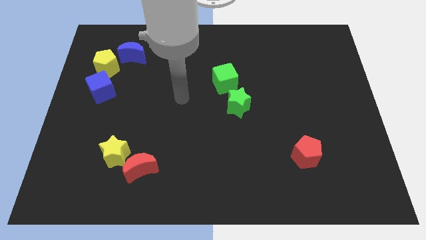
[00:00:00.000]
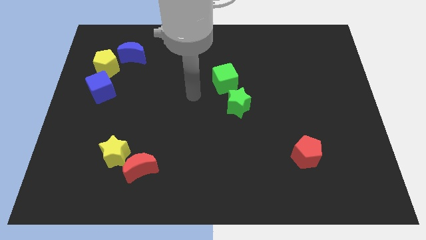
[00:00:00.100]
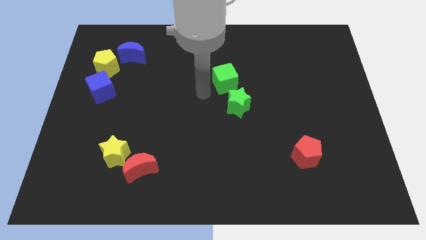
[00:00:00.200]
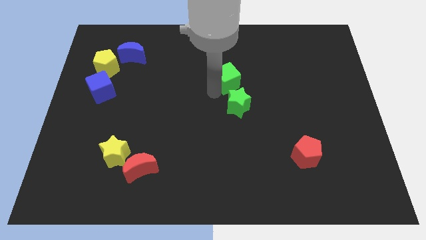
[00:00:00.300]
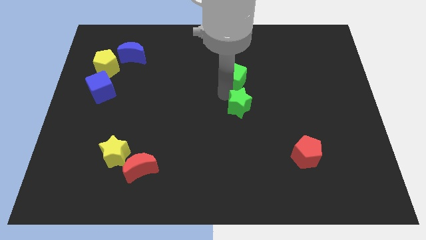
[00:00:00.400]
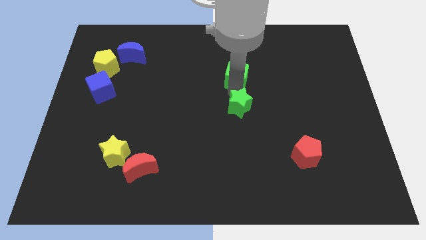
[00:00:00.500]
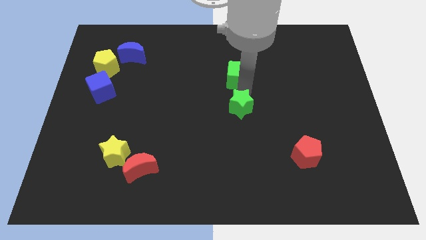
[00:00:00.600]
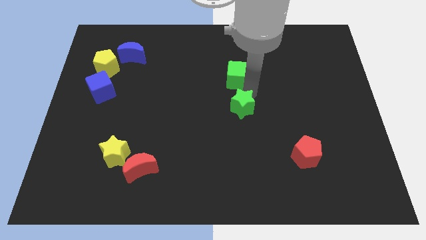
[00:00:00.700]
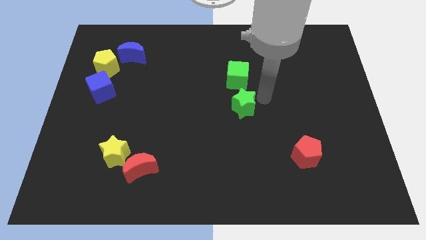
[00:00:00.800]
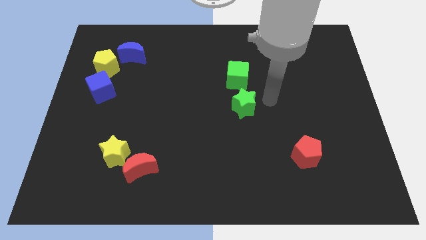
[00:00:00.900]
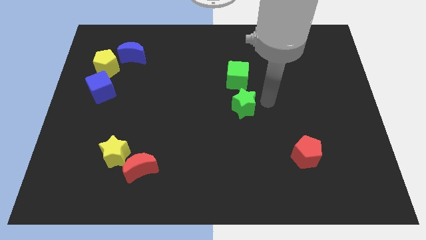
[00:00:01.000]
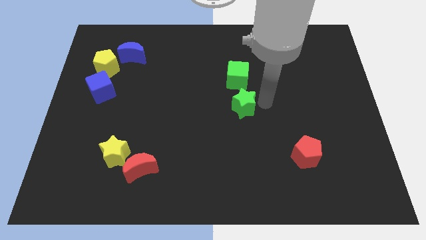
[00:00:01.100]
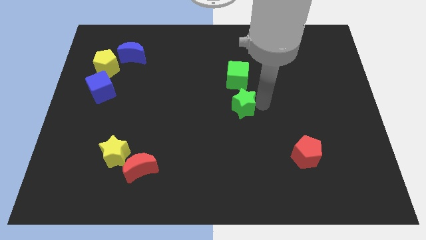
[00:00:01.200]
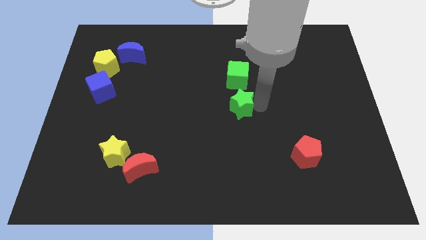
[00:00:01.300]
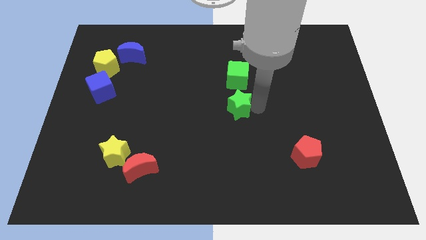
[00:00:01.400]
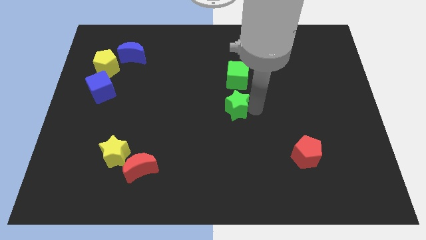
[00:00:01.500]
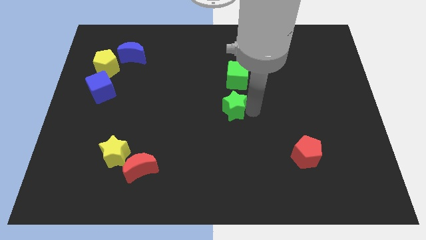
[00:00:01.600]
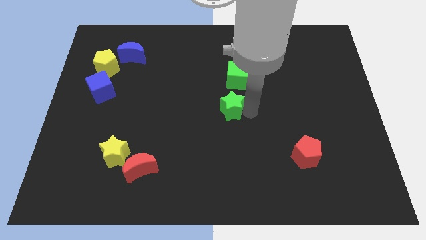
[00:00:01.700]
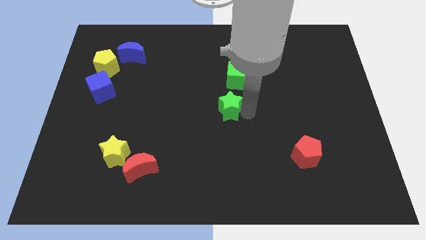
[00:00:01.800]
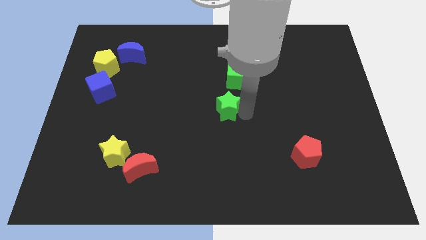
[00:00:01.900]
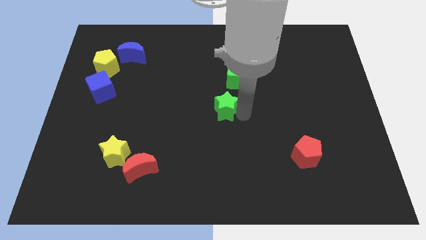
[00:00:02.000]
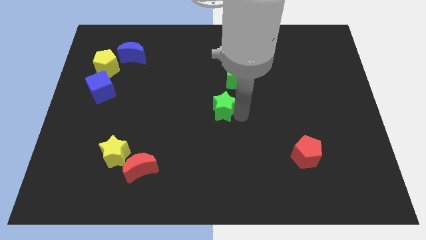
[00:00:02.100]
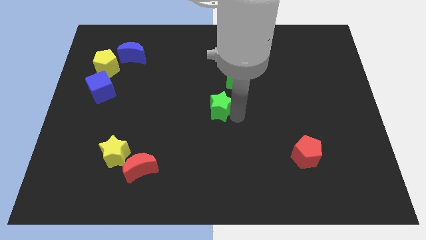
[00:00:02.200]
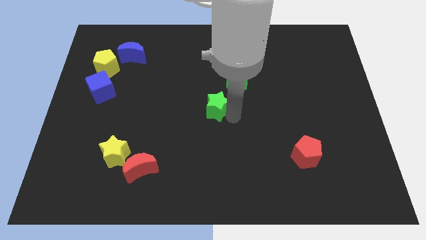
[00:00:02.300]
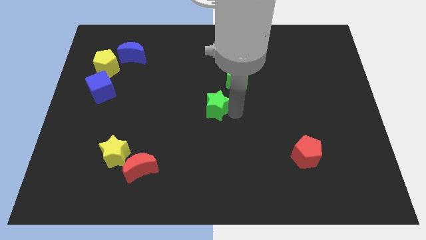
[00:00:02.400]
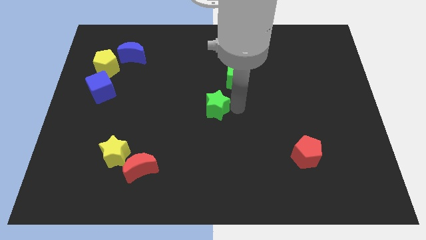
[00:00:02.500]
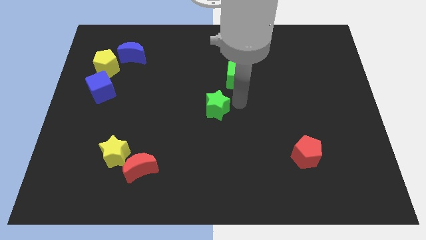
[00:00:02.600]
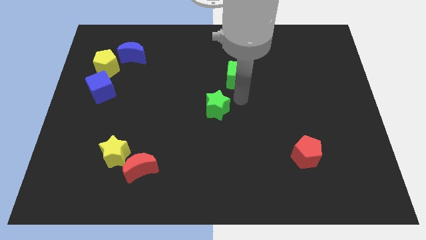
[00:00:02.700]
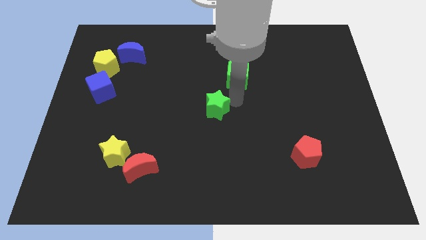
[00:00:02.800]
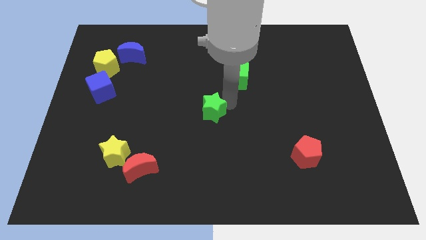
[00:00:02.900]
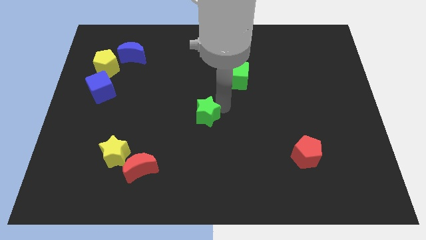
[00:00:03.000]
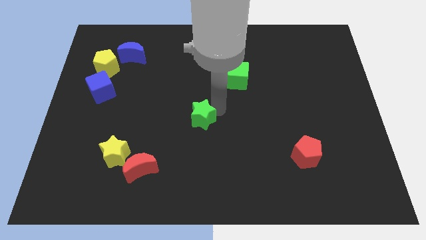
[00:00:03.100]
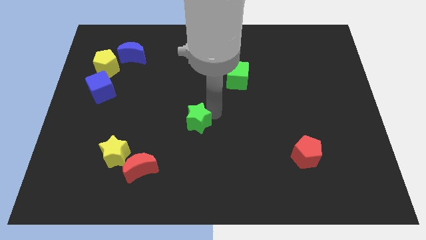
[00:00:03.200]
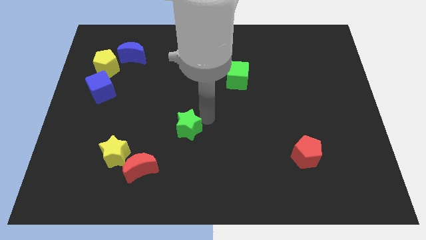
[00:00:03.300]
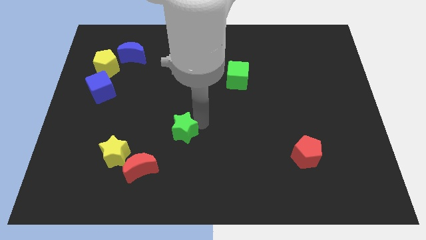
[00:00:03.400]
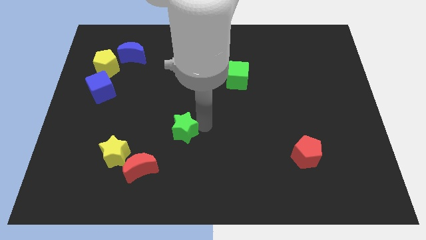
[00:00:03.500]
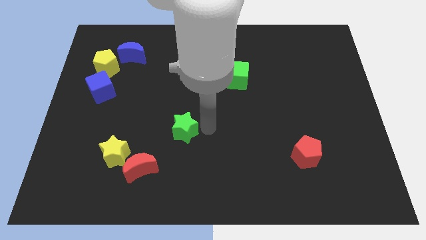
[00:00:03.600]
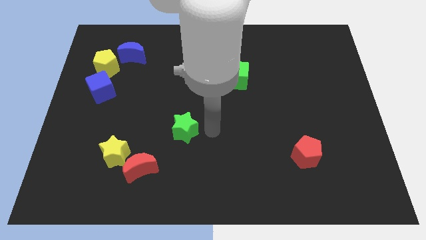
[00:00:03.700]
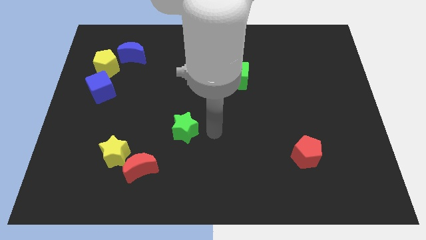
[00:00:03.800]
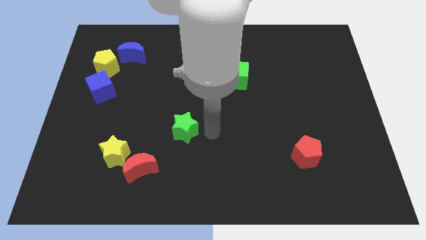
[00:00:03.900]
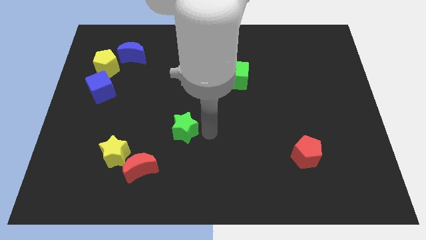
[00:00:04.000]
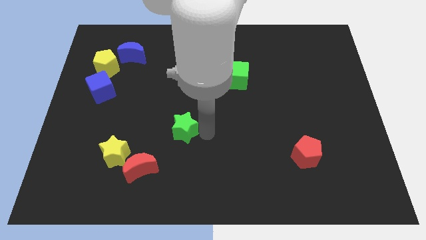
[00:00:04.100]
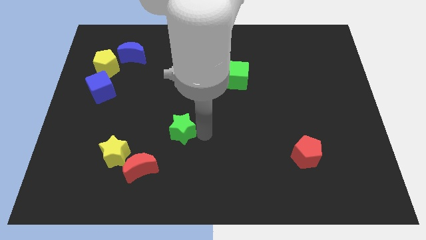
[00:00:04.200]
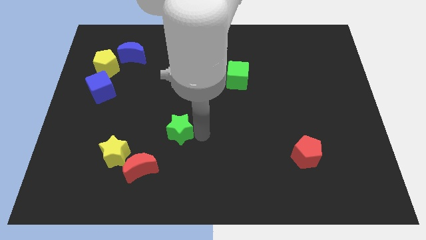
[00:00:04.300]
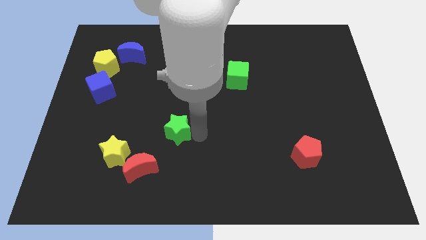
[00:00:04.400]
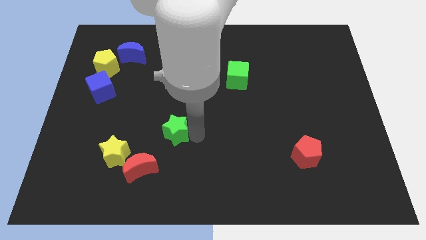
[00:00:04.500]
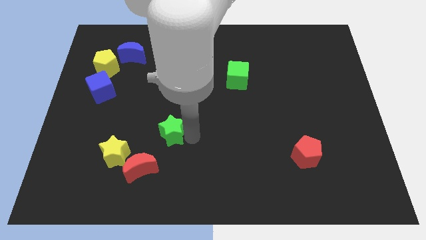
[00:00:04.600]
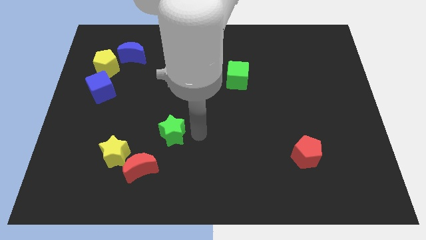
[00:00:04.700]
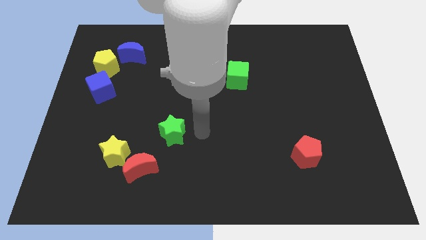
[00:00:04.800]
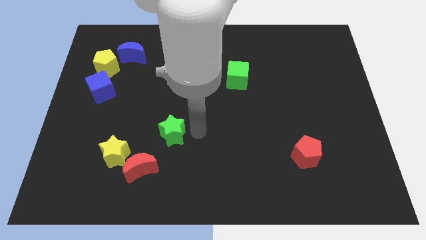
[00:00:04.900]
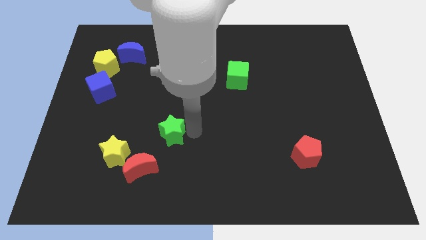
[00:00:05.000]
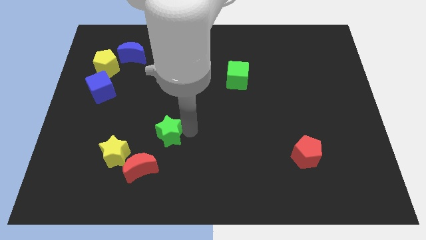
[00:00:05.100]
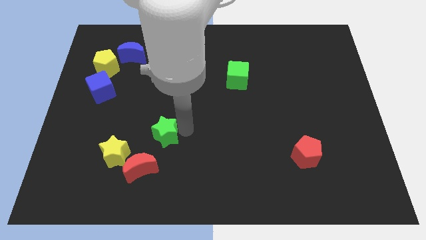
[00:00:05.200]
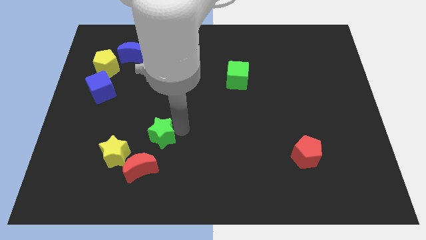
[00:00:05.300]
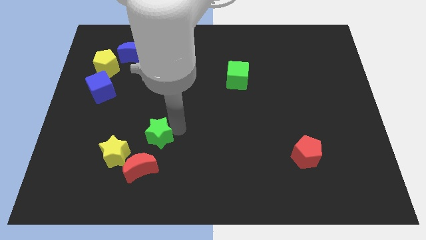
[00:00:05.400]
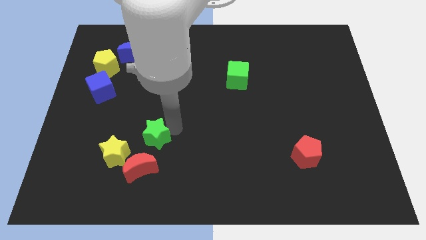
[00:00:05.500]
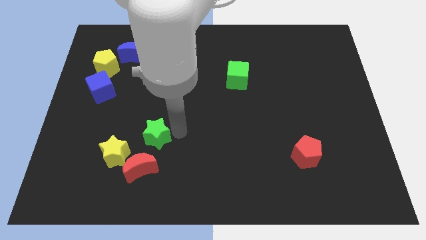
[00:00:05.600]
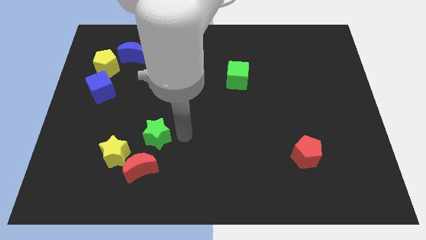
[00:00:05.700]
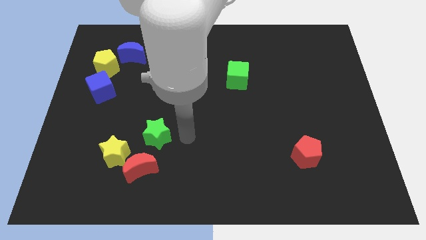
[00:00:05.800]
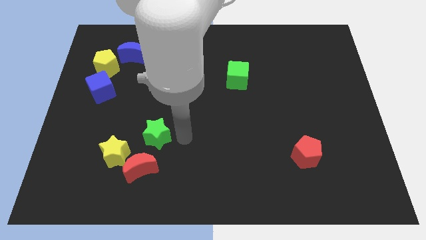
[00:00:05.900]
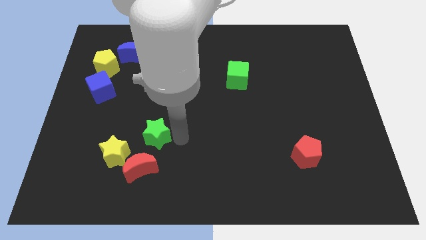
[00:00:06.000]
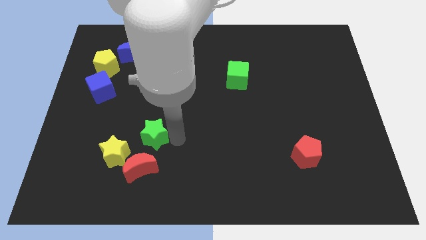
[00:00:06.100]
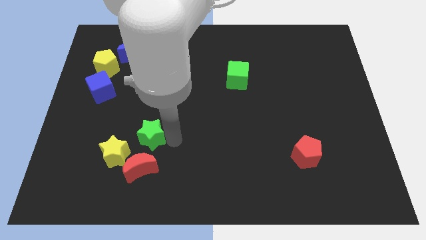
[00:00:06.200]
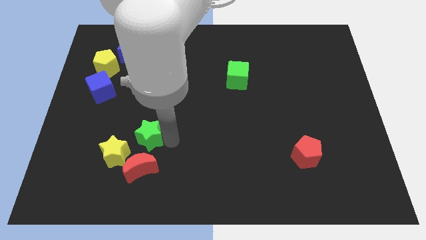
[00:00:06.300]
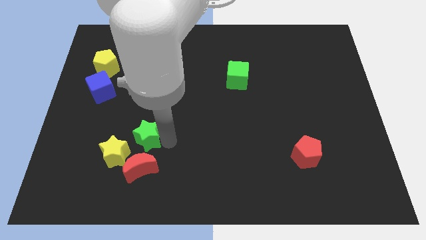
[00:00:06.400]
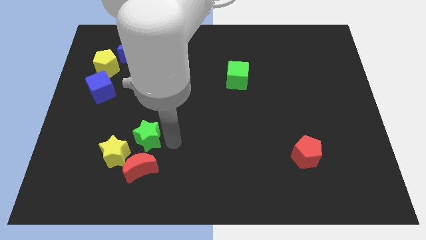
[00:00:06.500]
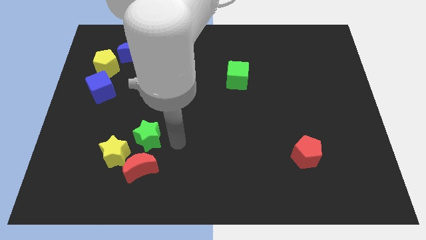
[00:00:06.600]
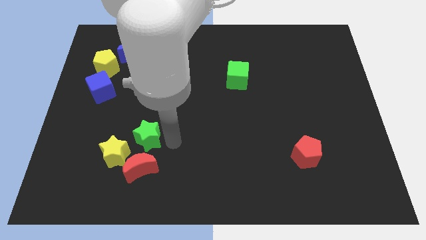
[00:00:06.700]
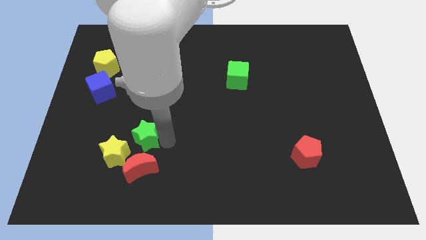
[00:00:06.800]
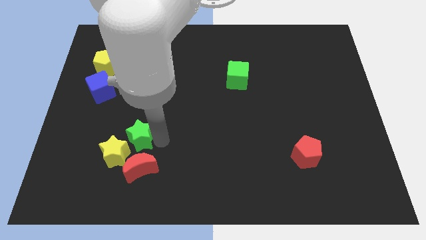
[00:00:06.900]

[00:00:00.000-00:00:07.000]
put the green star to the top left side of the red moon
